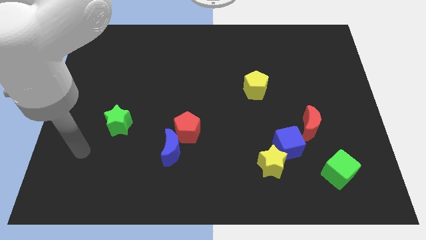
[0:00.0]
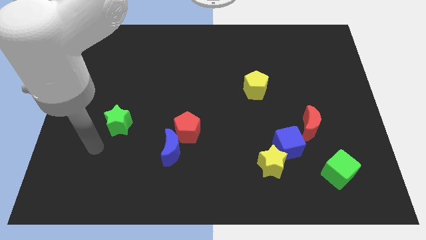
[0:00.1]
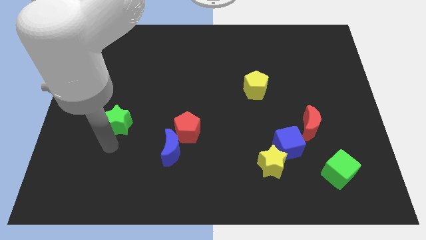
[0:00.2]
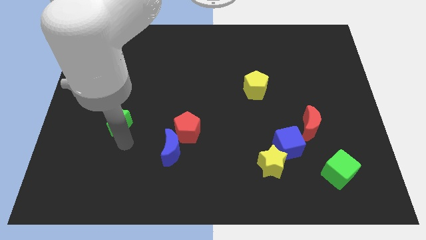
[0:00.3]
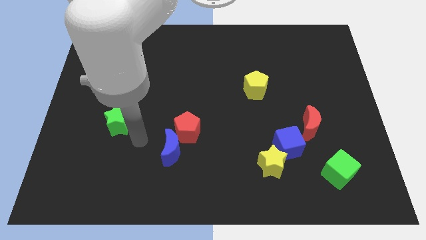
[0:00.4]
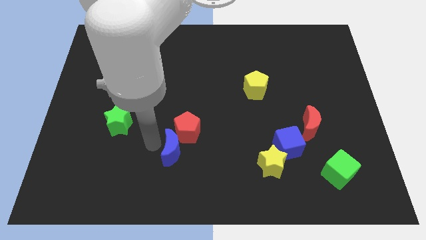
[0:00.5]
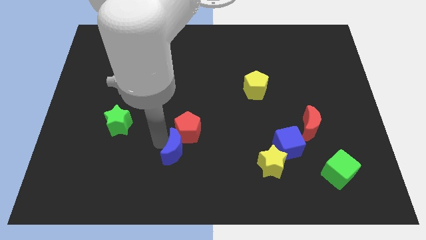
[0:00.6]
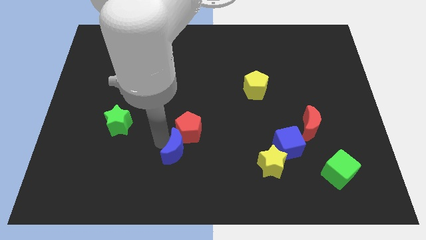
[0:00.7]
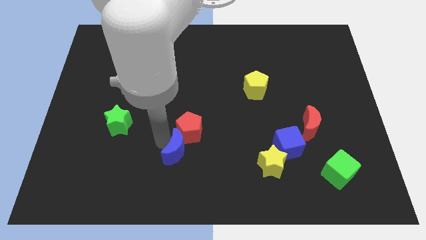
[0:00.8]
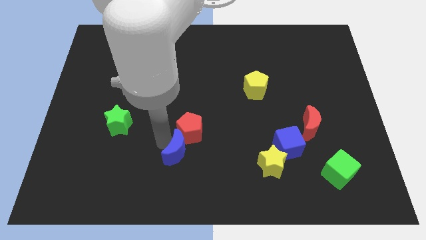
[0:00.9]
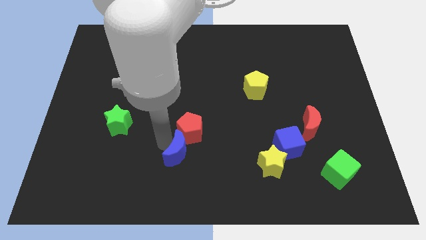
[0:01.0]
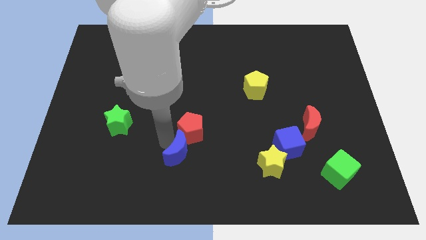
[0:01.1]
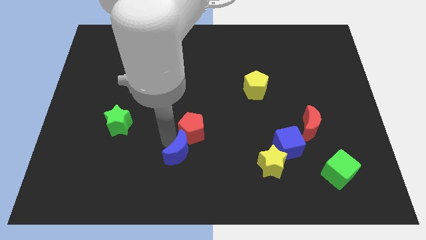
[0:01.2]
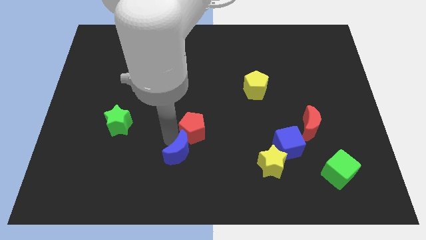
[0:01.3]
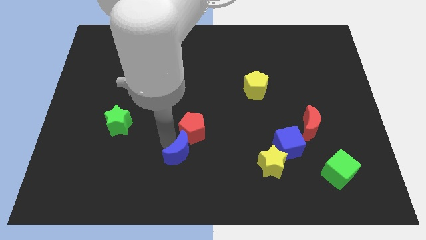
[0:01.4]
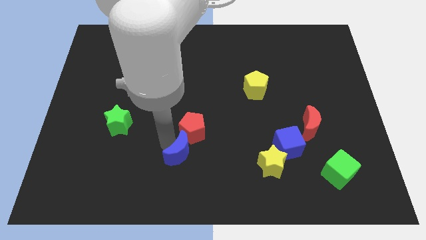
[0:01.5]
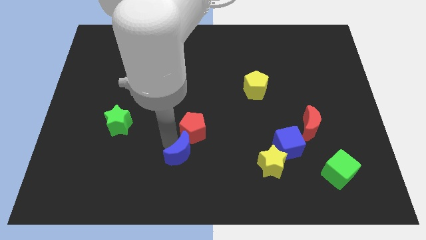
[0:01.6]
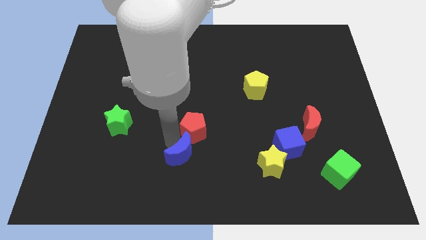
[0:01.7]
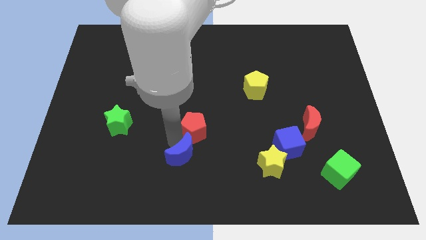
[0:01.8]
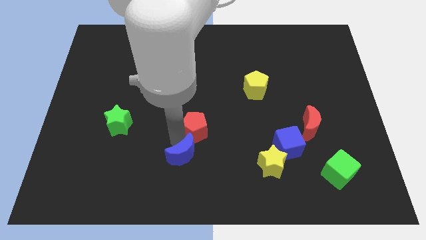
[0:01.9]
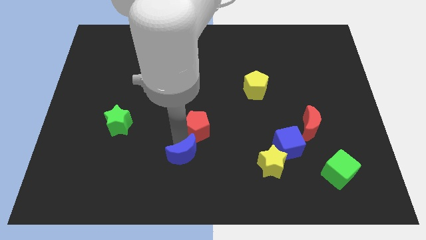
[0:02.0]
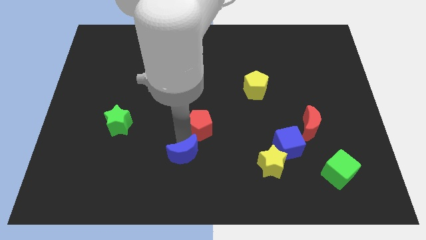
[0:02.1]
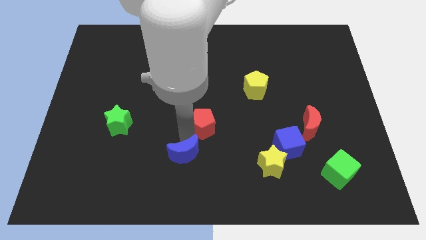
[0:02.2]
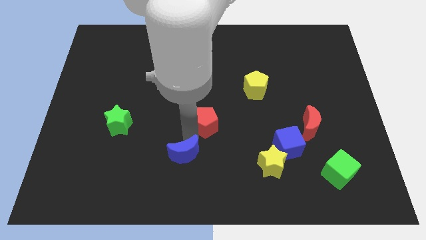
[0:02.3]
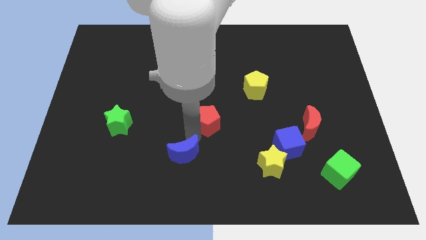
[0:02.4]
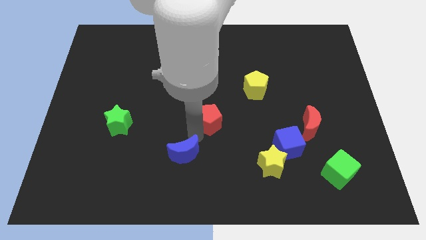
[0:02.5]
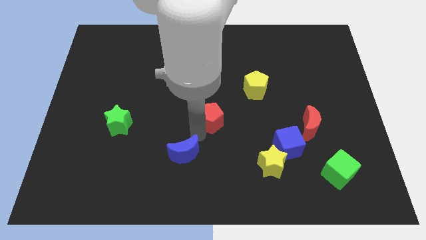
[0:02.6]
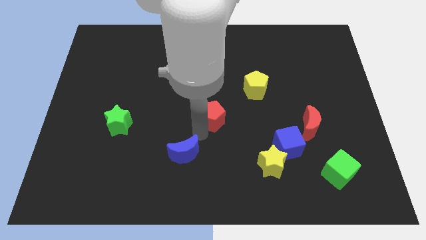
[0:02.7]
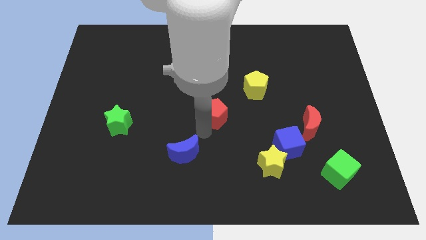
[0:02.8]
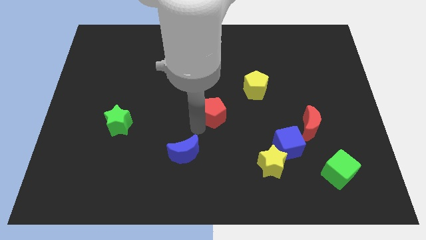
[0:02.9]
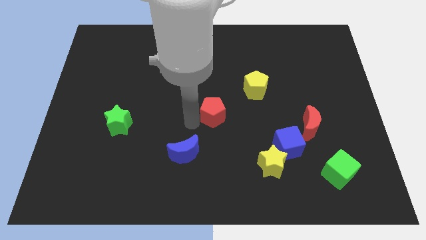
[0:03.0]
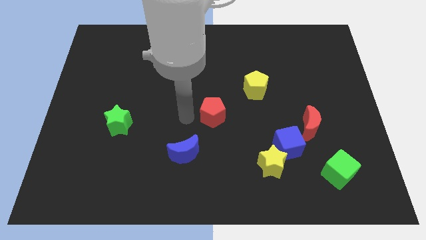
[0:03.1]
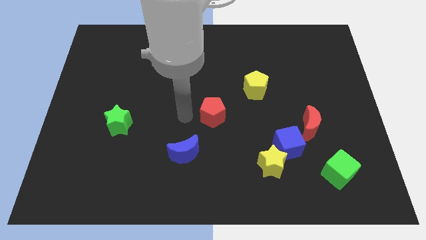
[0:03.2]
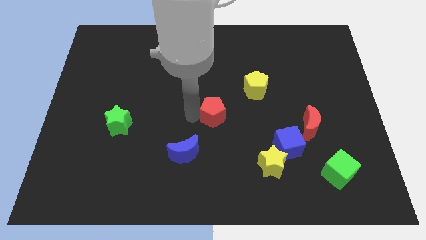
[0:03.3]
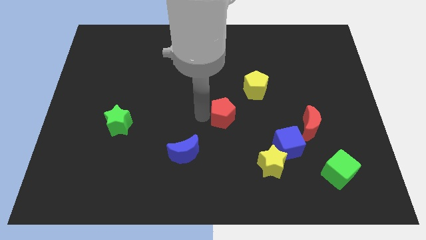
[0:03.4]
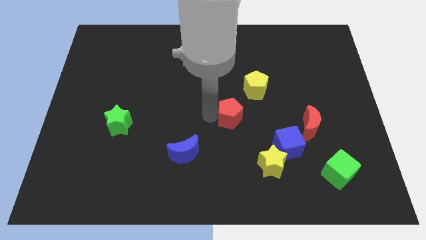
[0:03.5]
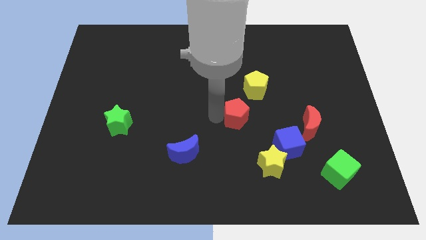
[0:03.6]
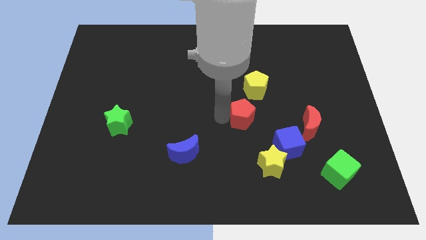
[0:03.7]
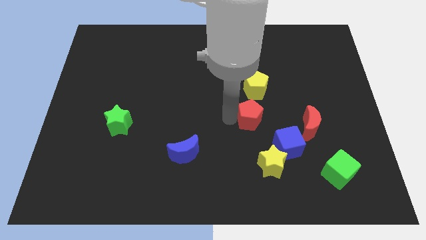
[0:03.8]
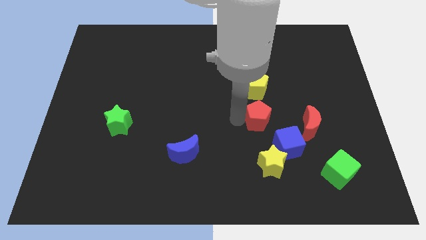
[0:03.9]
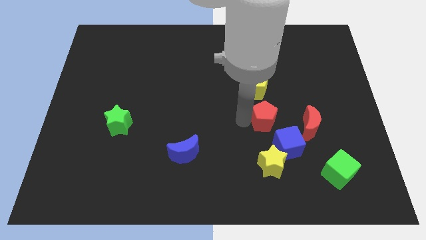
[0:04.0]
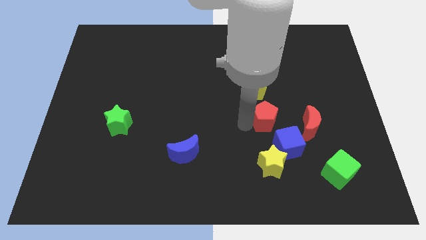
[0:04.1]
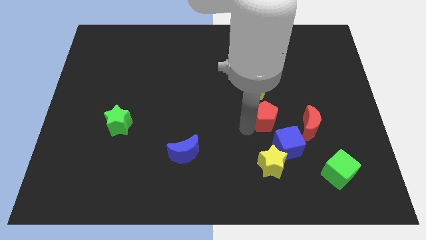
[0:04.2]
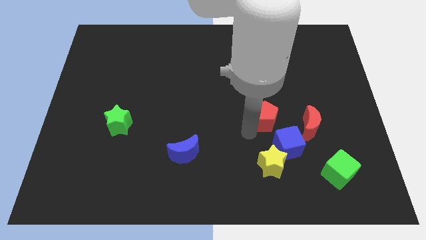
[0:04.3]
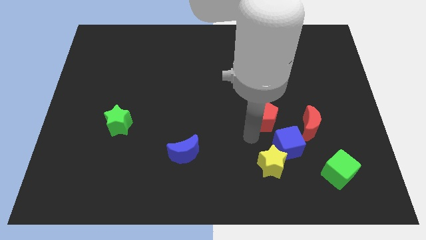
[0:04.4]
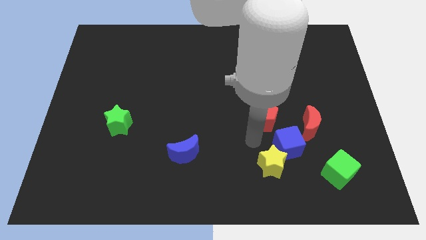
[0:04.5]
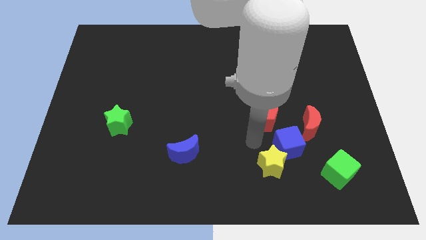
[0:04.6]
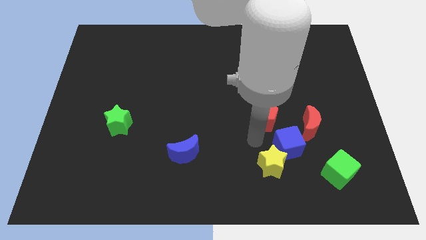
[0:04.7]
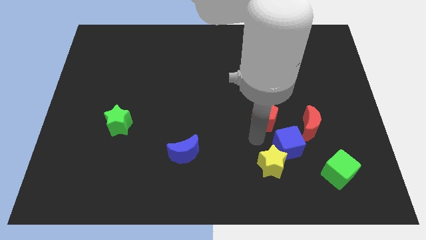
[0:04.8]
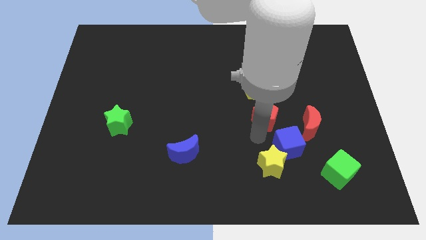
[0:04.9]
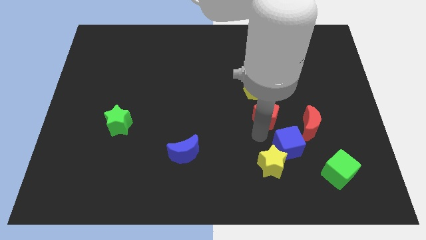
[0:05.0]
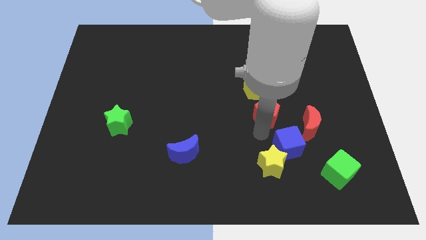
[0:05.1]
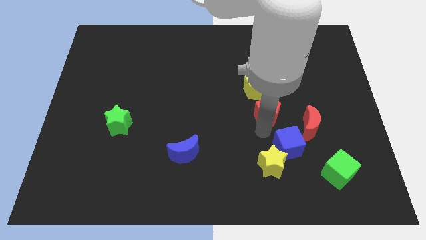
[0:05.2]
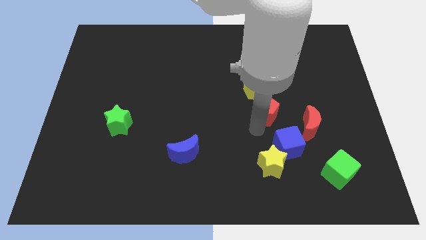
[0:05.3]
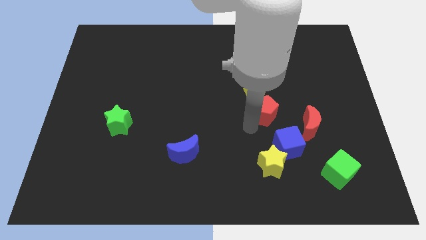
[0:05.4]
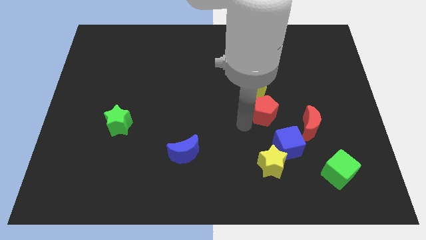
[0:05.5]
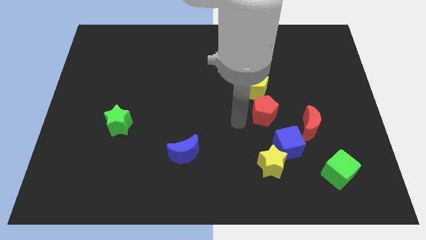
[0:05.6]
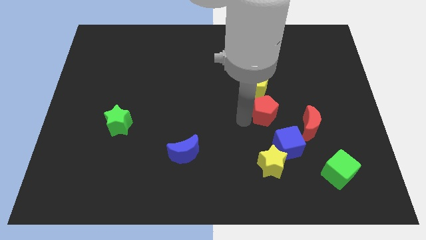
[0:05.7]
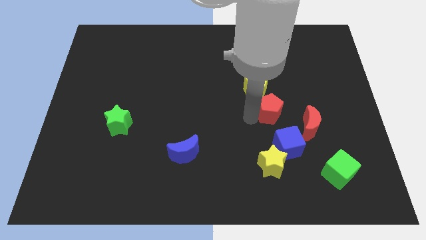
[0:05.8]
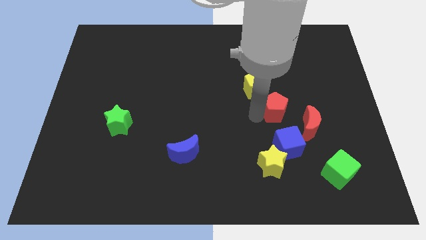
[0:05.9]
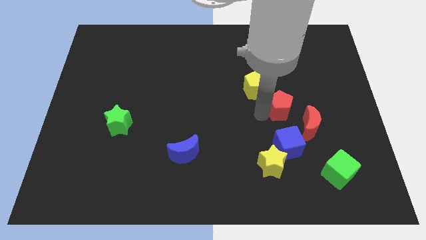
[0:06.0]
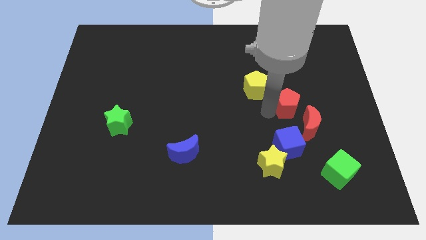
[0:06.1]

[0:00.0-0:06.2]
move the red pentagon to the right

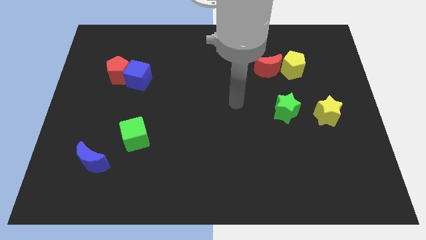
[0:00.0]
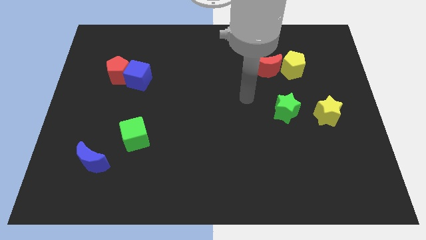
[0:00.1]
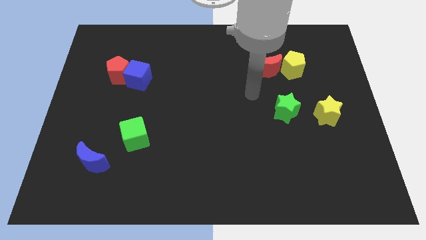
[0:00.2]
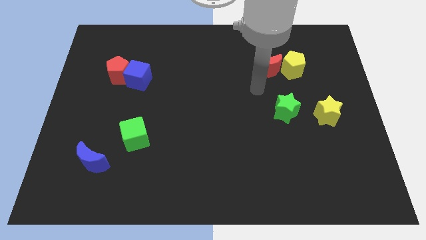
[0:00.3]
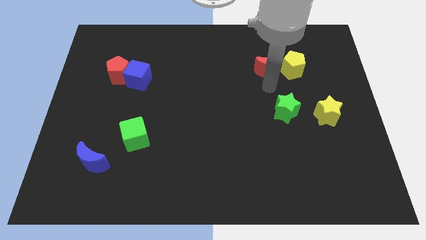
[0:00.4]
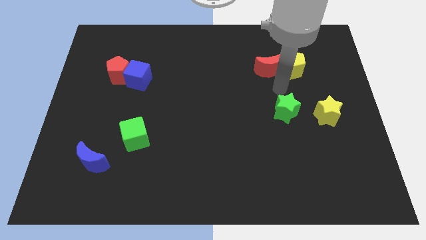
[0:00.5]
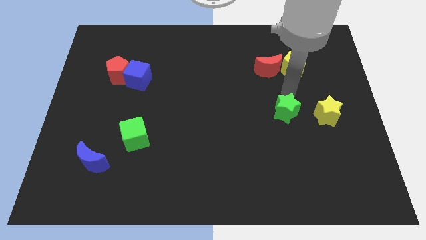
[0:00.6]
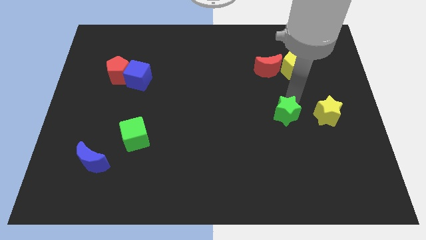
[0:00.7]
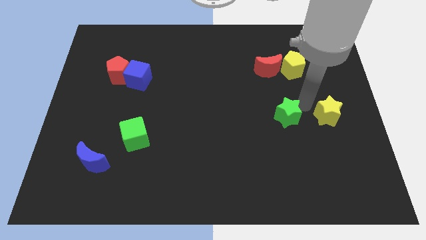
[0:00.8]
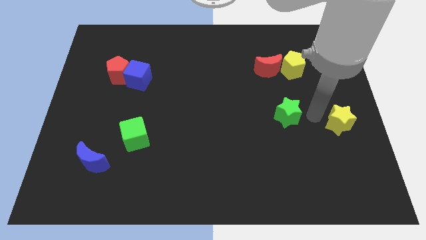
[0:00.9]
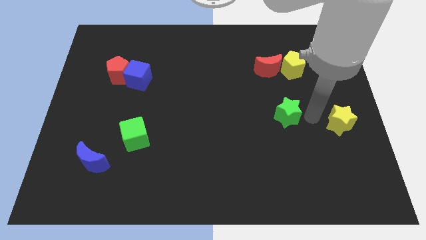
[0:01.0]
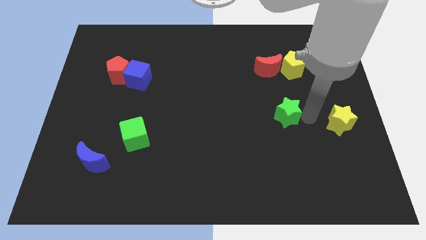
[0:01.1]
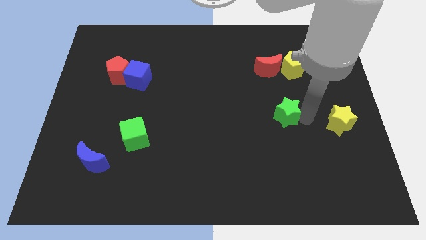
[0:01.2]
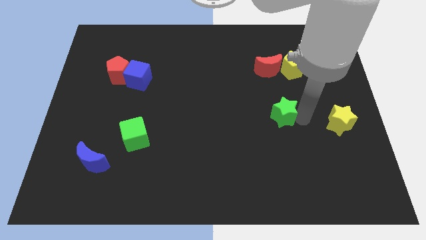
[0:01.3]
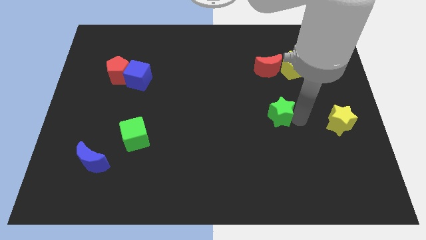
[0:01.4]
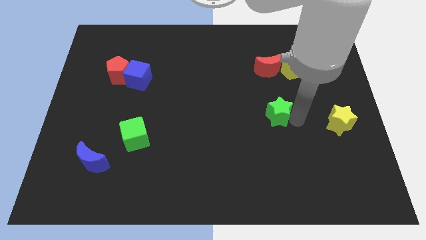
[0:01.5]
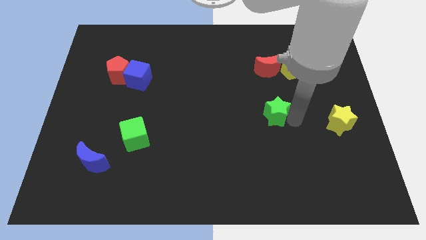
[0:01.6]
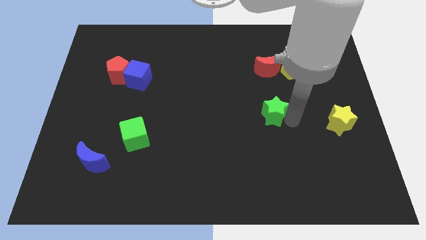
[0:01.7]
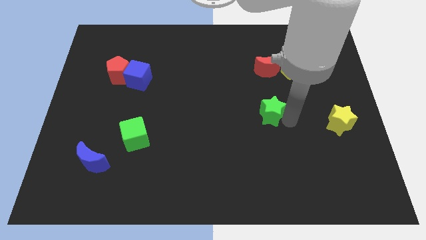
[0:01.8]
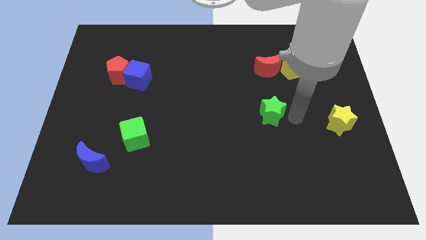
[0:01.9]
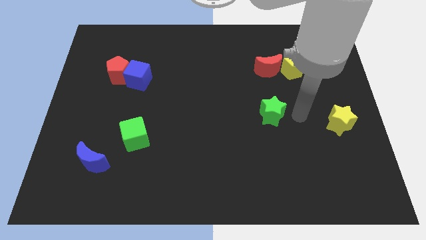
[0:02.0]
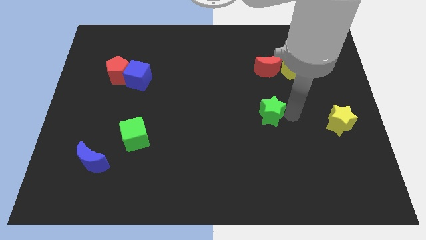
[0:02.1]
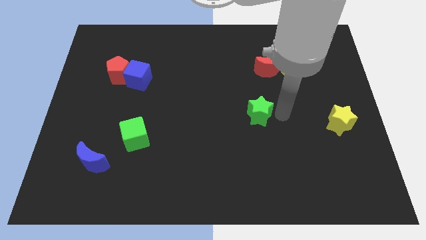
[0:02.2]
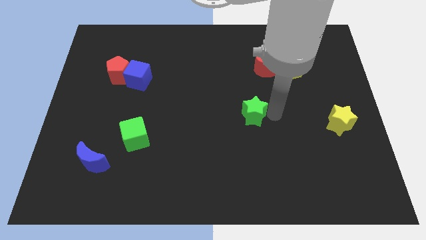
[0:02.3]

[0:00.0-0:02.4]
move the green star left somewhat
